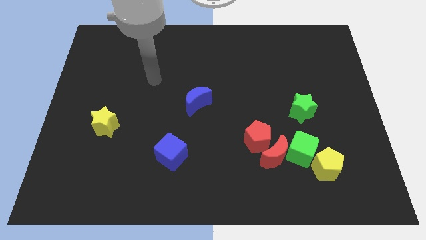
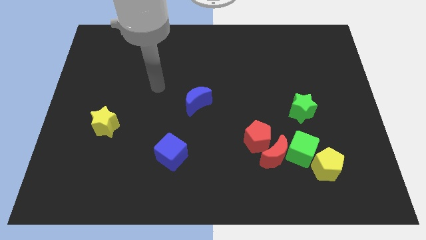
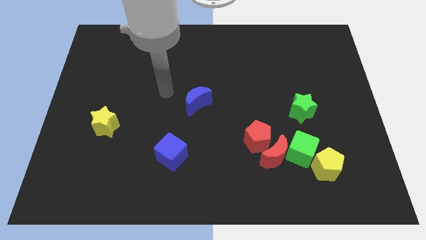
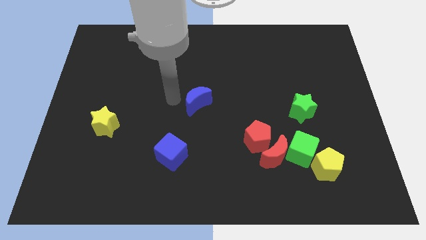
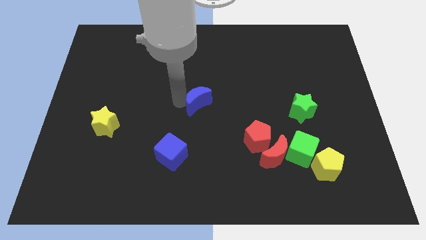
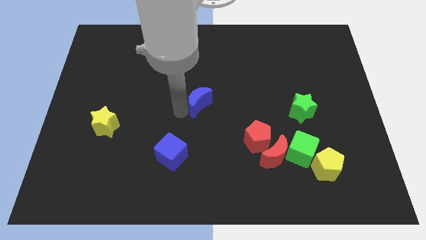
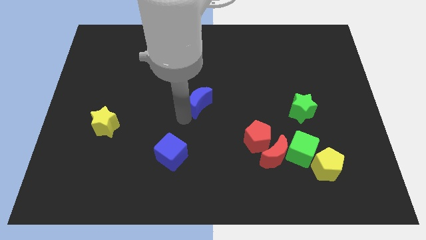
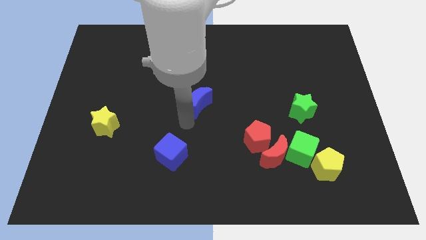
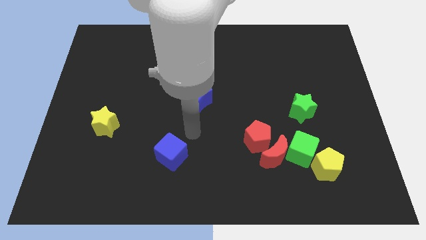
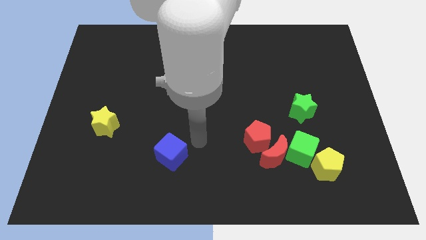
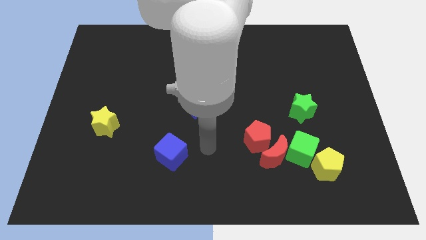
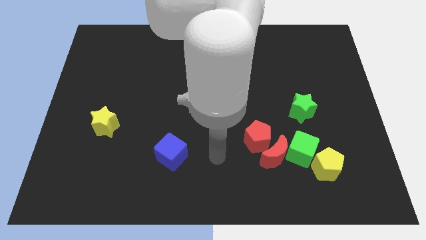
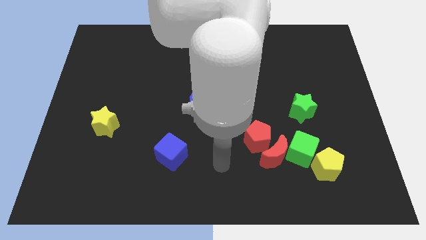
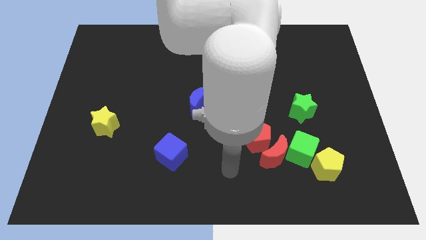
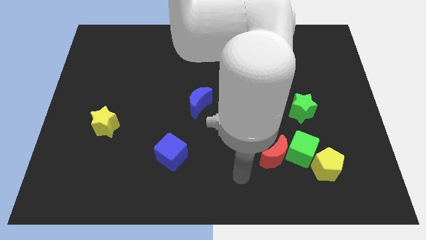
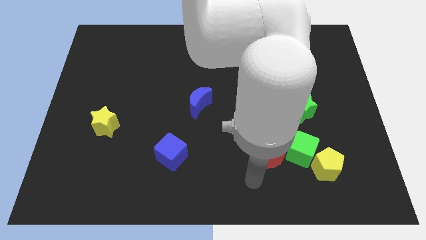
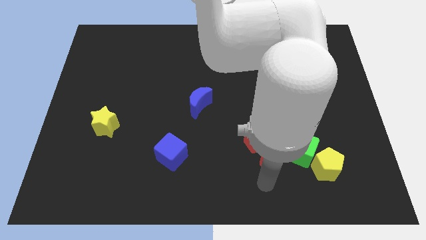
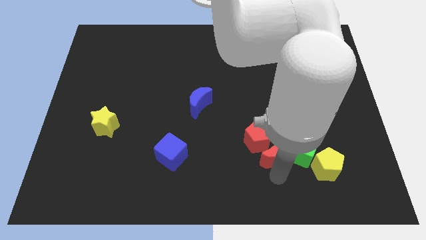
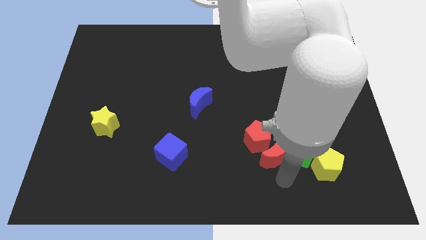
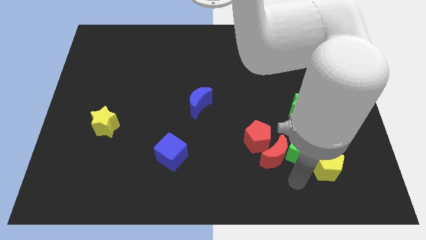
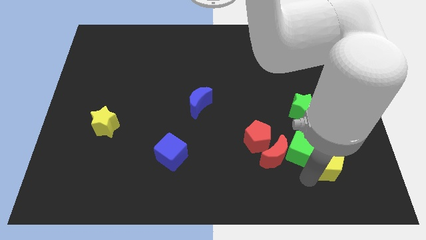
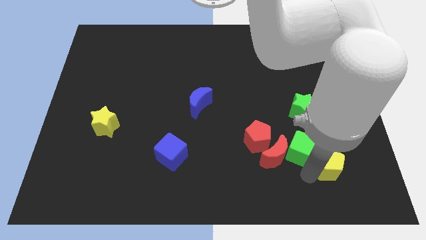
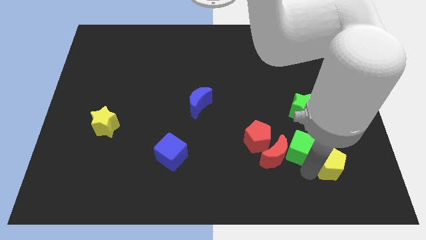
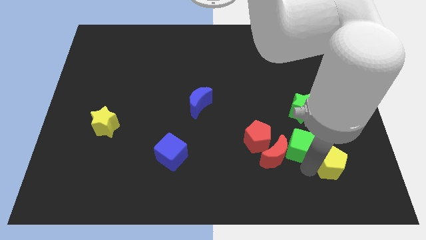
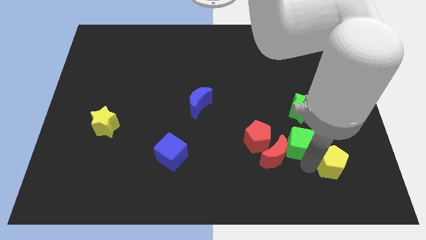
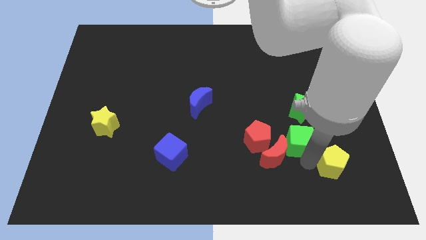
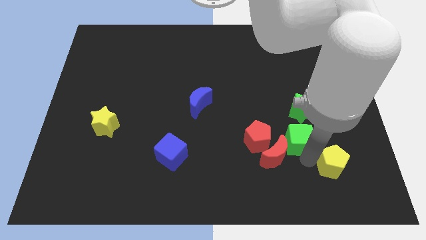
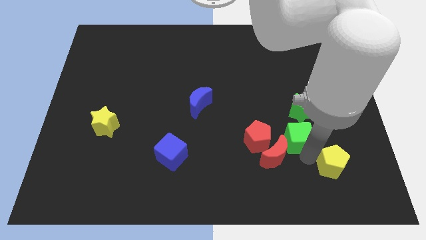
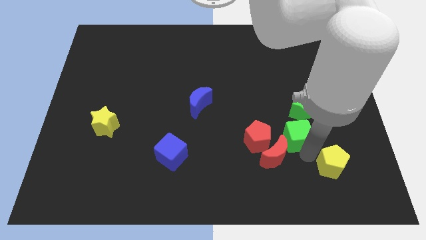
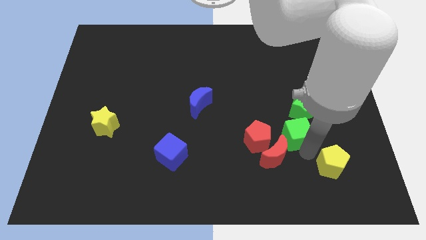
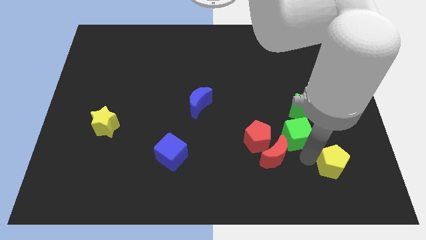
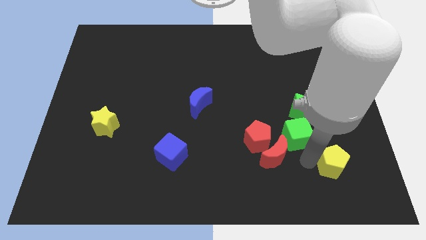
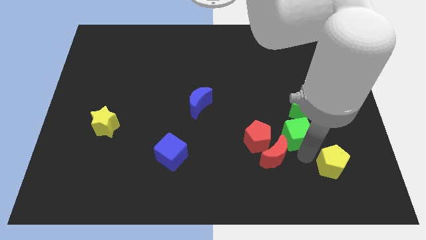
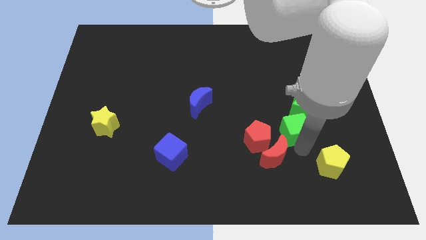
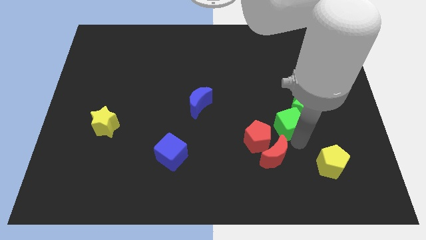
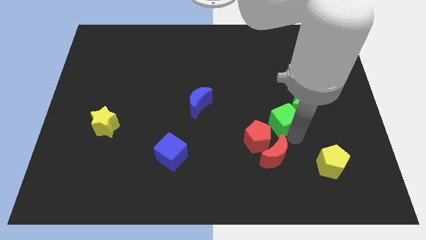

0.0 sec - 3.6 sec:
move the green cube a little bit upwards

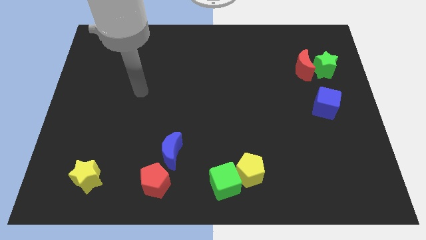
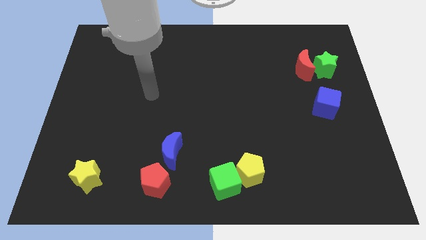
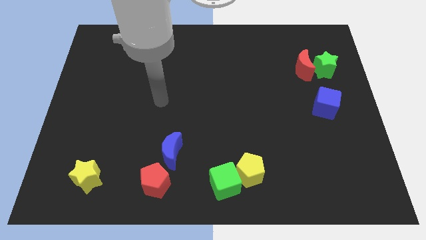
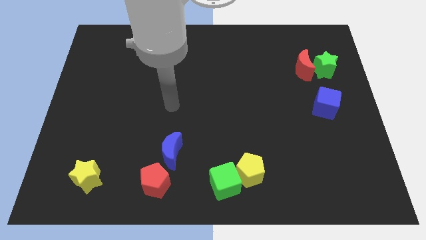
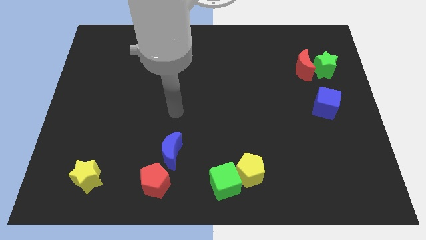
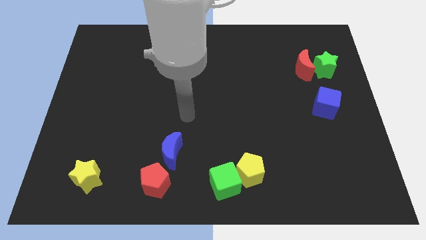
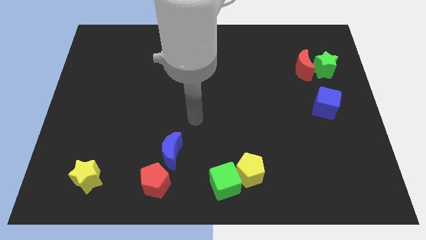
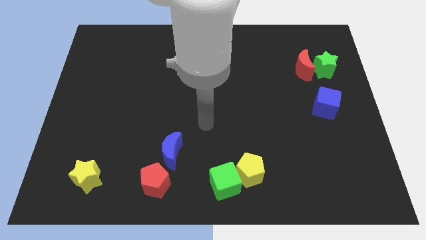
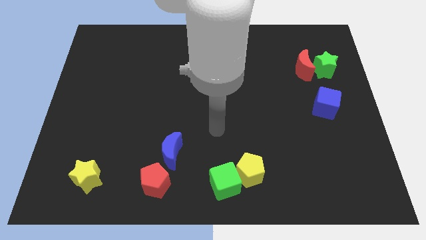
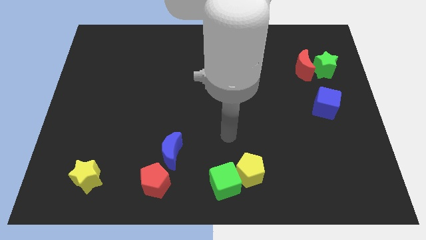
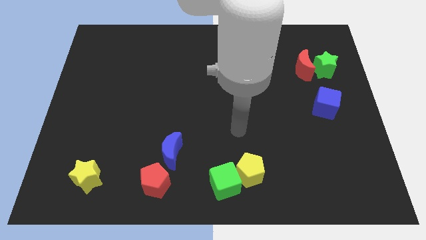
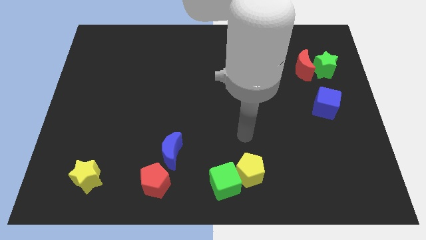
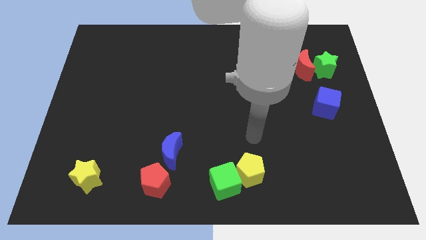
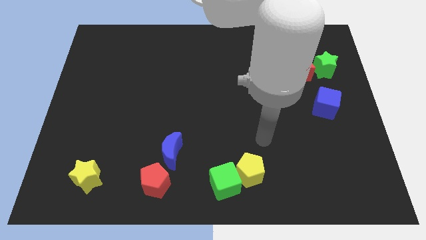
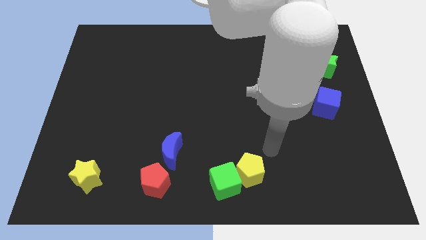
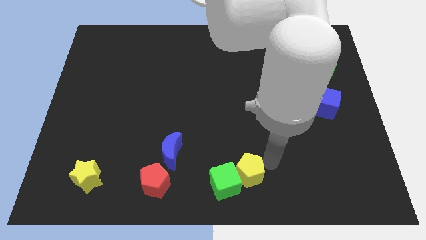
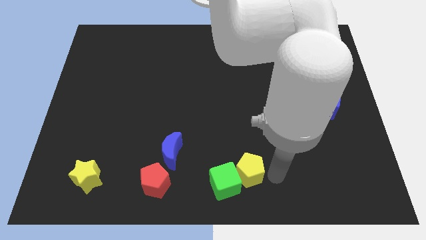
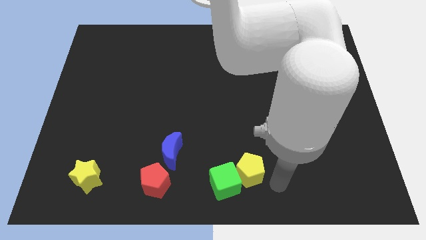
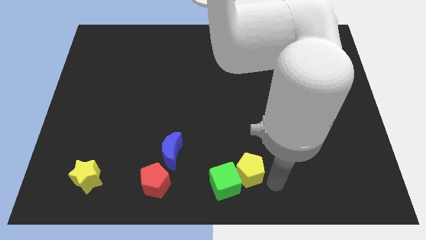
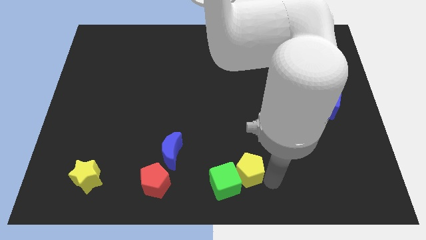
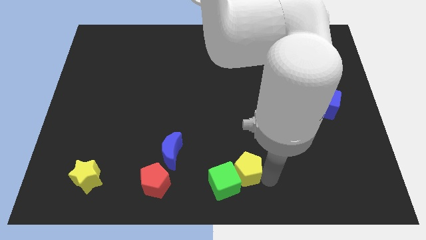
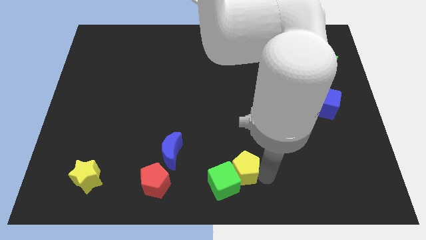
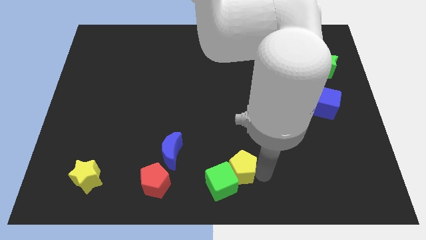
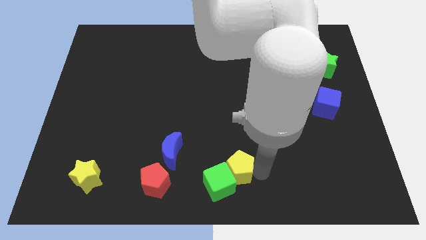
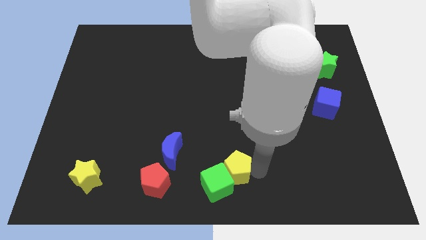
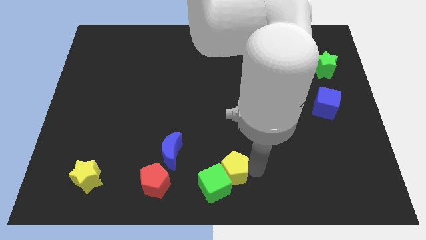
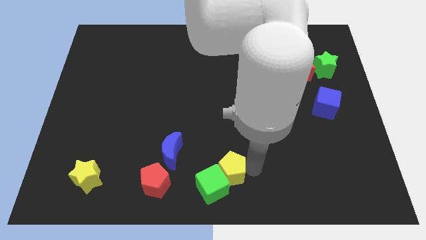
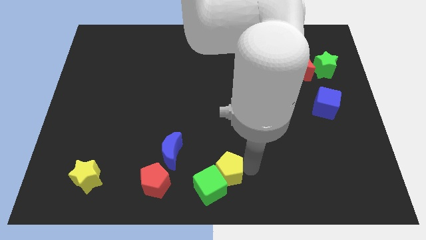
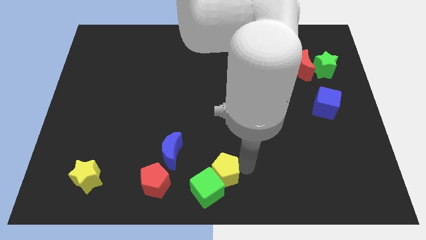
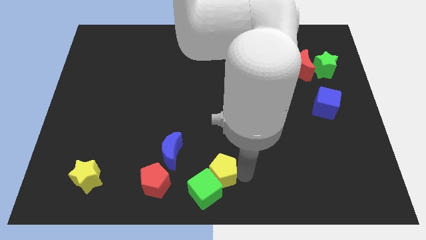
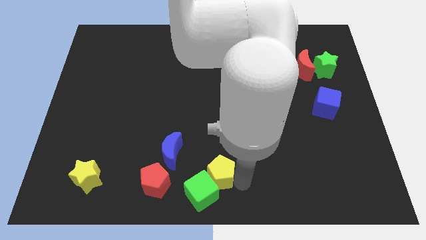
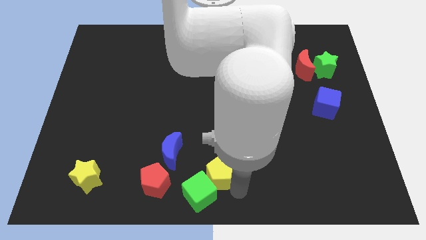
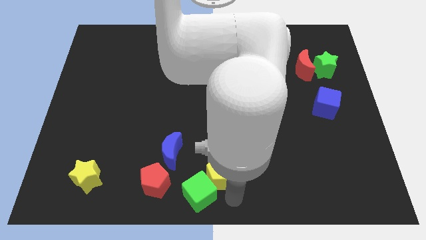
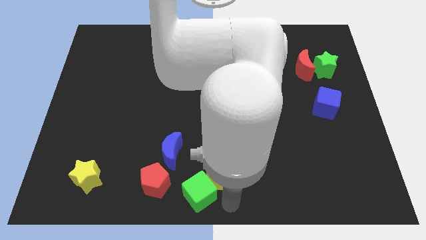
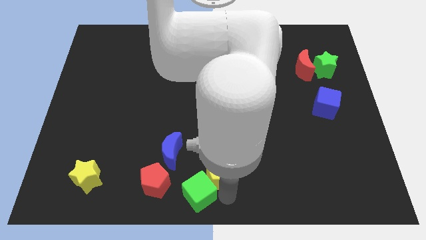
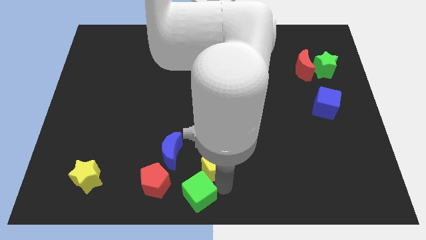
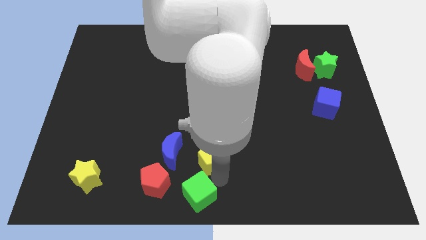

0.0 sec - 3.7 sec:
slide the yellow pentagon upwards and left slightly

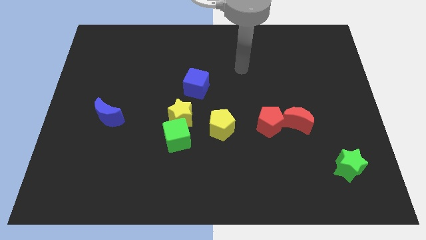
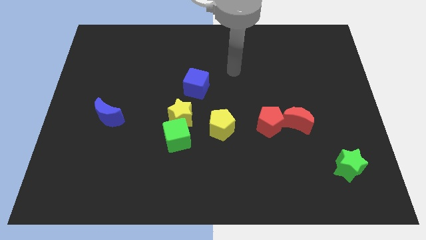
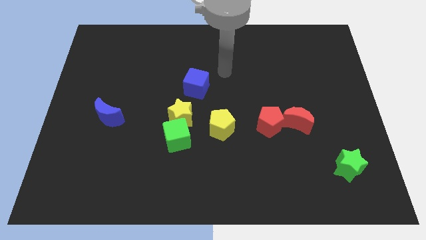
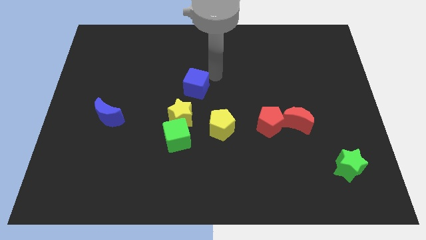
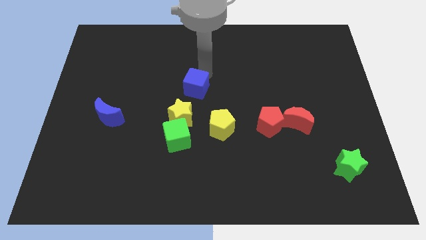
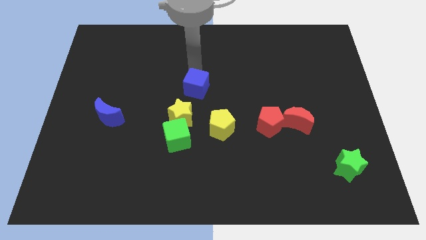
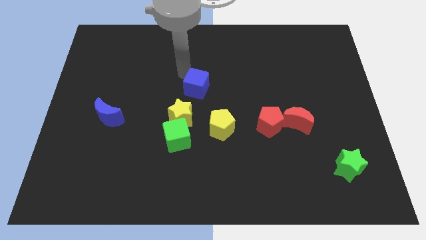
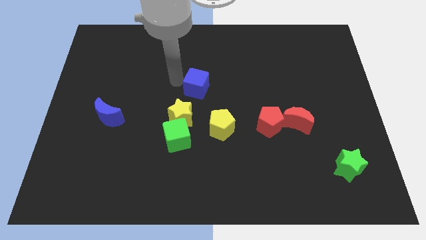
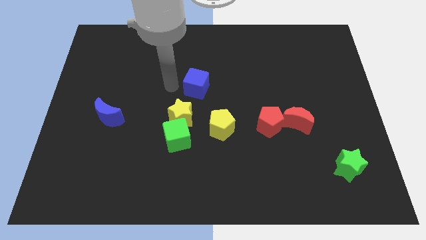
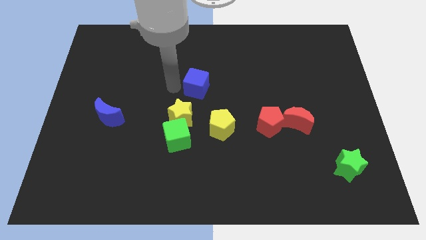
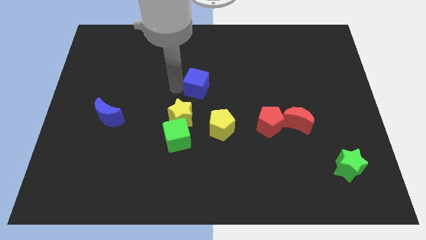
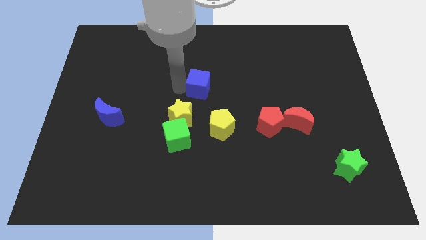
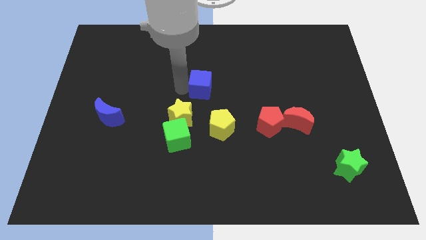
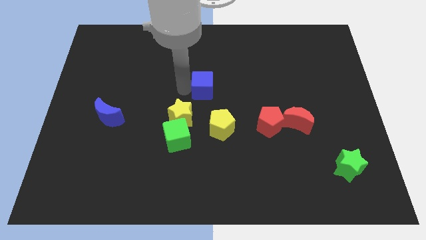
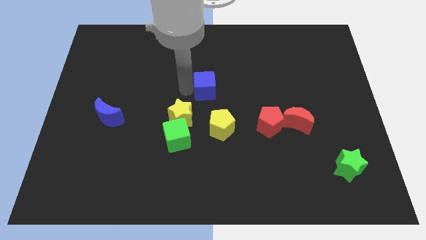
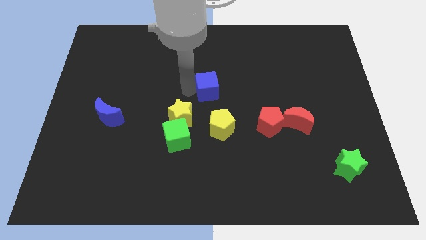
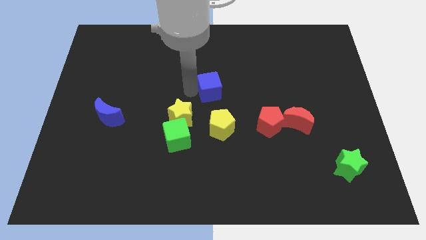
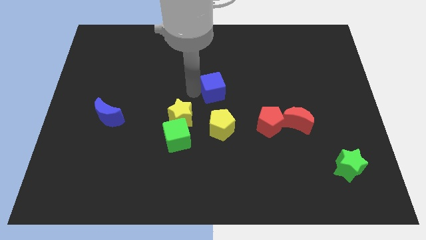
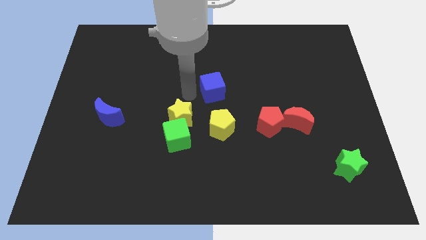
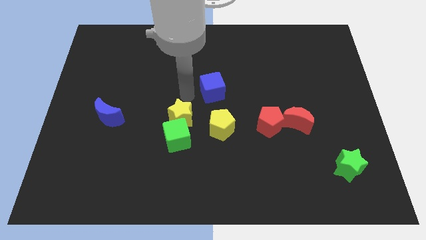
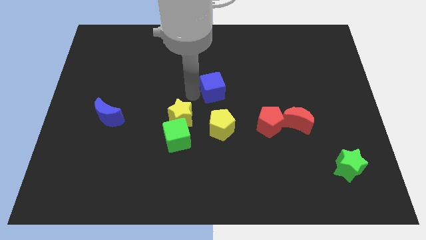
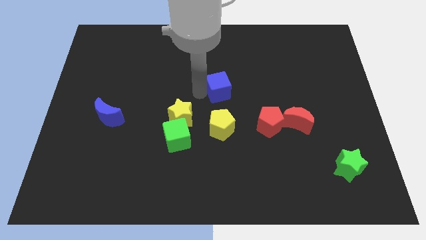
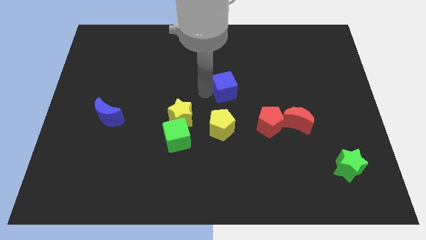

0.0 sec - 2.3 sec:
slightly slide the blue cube to the right
